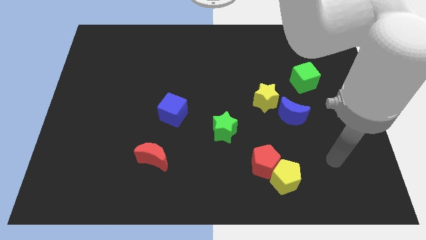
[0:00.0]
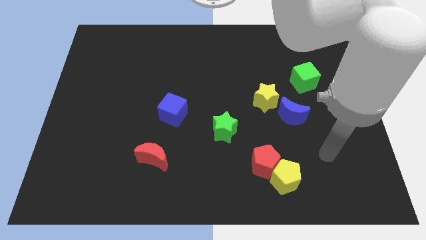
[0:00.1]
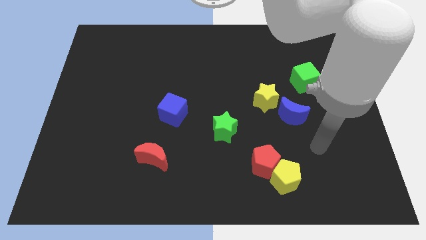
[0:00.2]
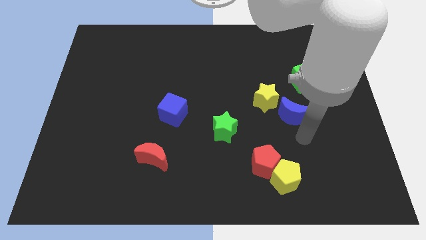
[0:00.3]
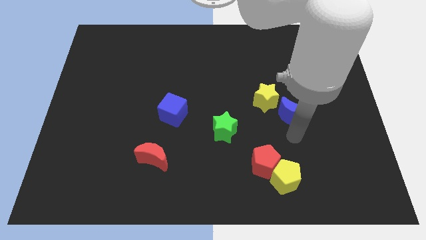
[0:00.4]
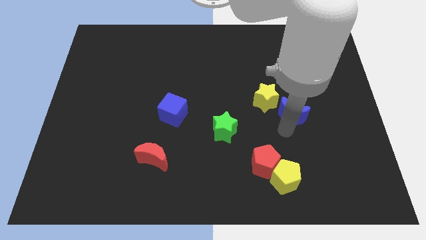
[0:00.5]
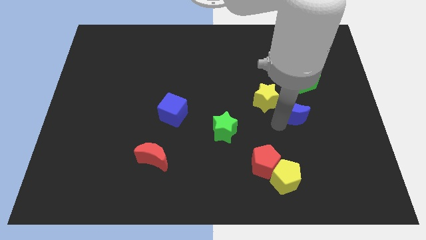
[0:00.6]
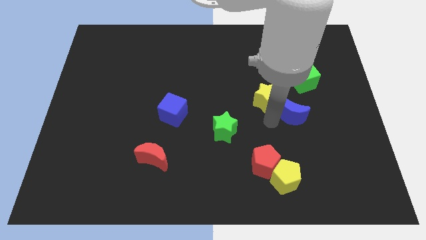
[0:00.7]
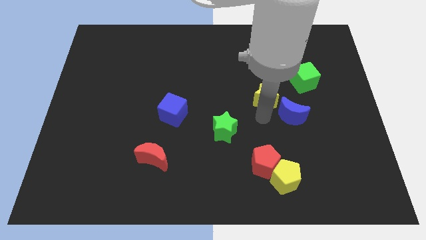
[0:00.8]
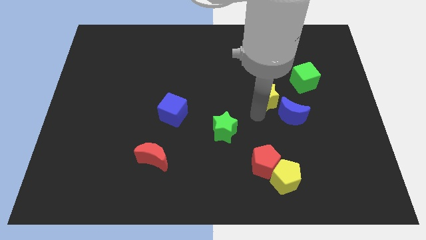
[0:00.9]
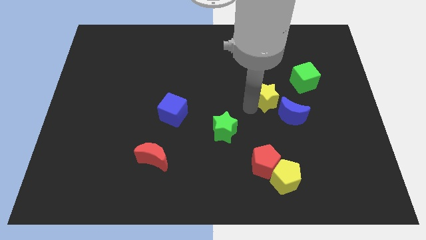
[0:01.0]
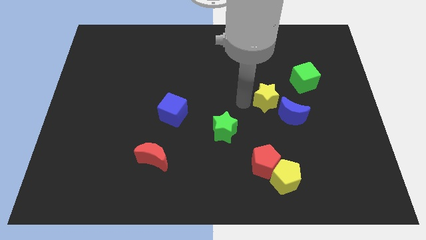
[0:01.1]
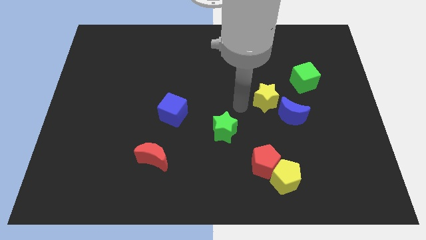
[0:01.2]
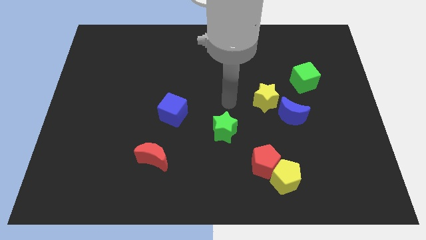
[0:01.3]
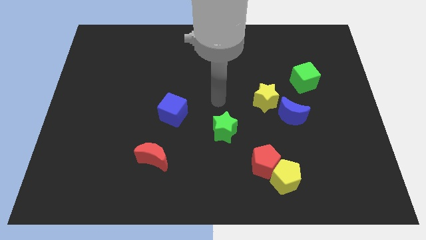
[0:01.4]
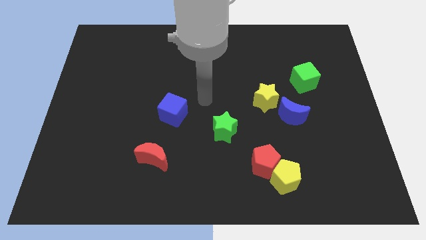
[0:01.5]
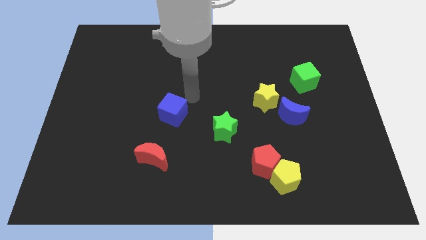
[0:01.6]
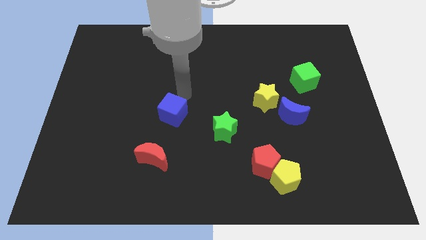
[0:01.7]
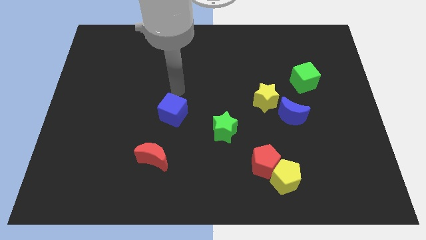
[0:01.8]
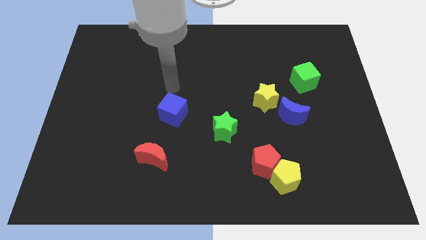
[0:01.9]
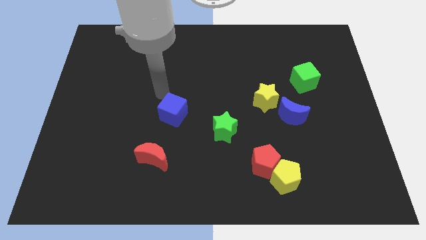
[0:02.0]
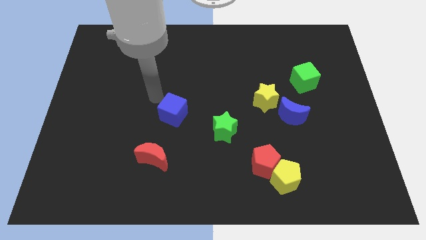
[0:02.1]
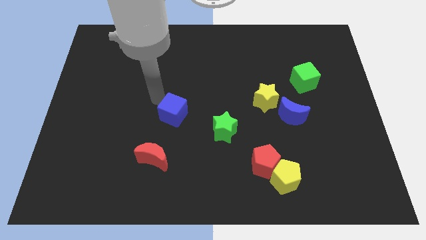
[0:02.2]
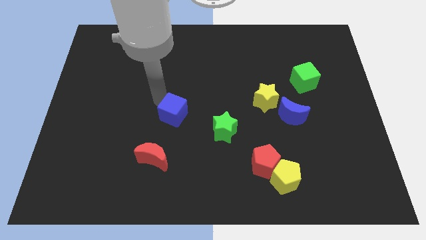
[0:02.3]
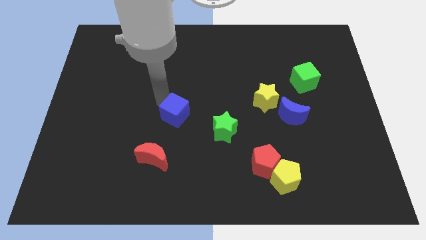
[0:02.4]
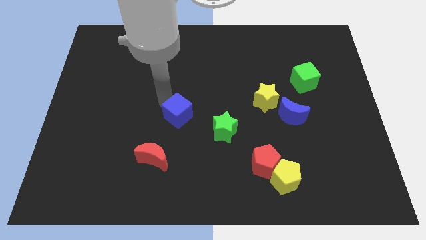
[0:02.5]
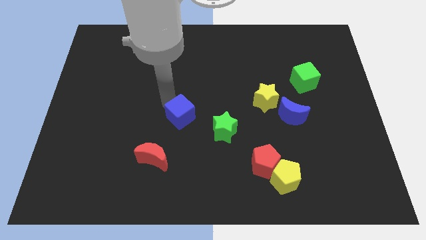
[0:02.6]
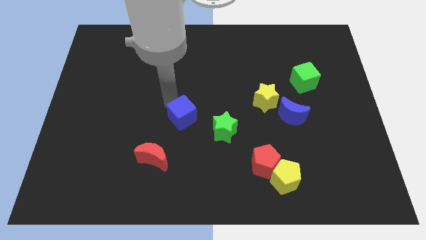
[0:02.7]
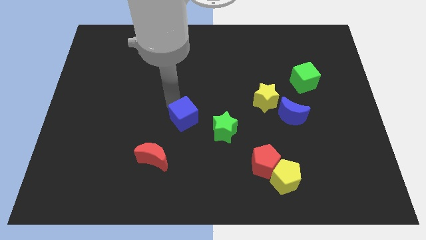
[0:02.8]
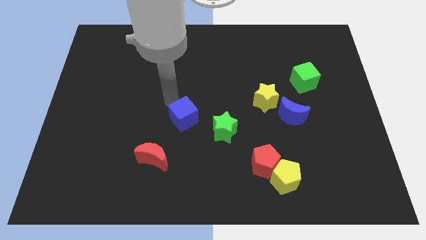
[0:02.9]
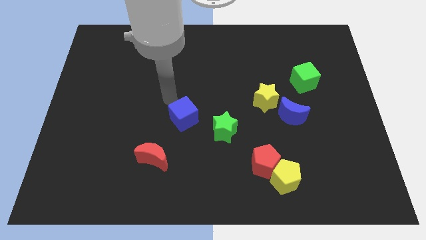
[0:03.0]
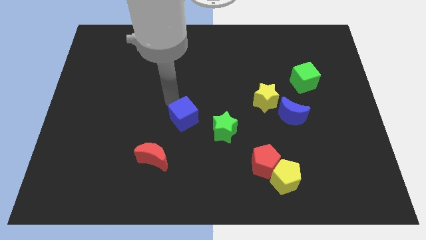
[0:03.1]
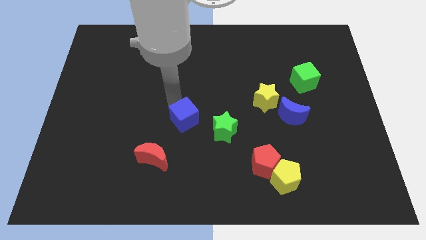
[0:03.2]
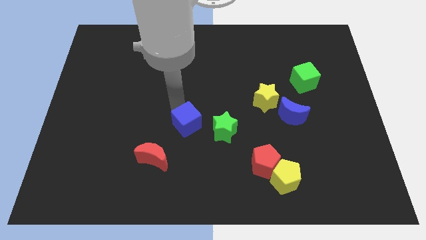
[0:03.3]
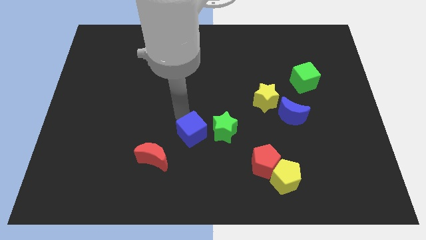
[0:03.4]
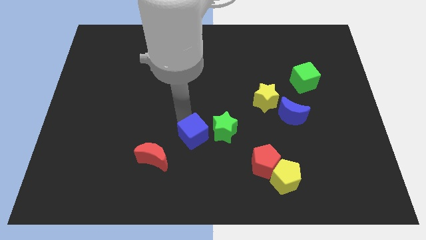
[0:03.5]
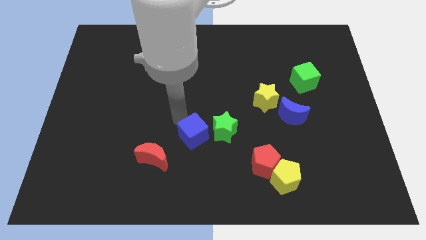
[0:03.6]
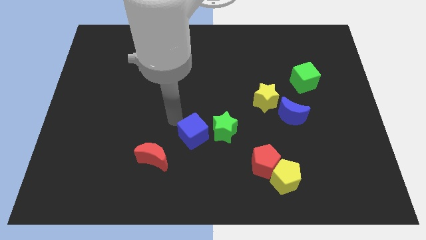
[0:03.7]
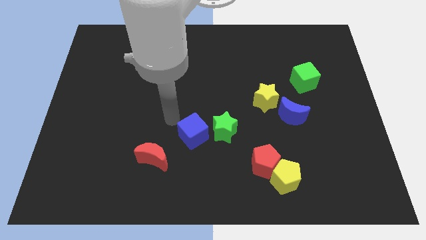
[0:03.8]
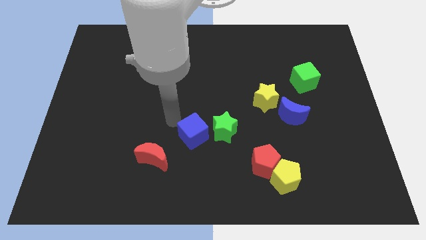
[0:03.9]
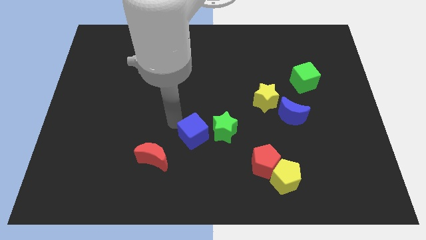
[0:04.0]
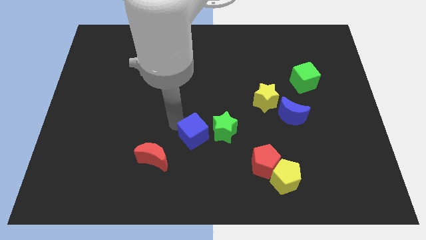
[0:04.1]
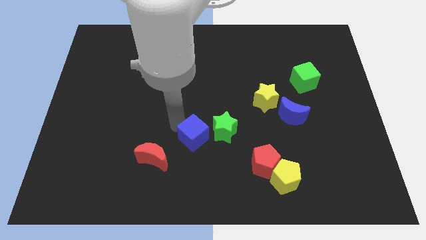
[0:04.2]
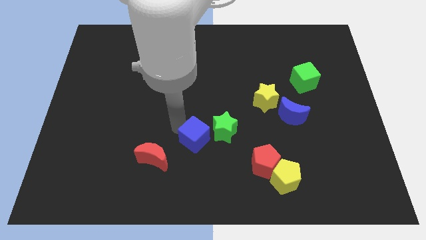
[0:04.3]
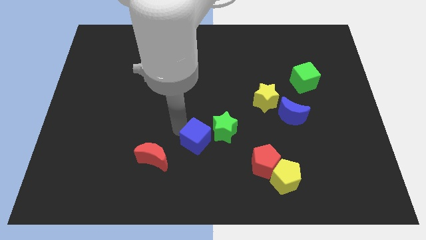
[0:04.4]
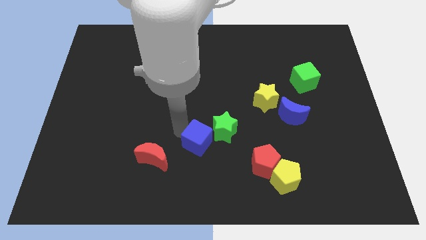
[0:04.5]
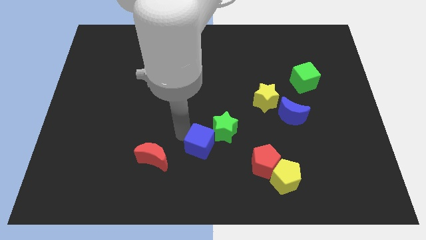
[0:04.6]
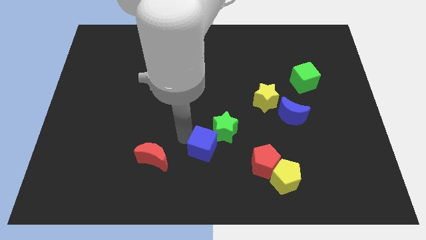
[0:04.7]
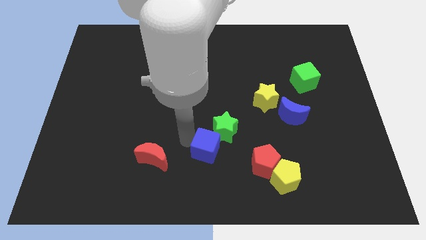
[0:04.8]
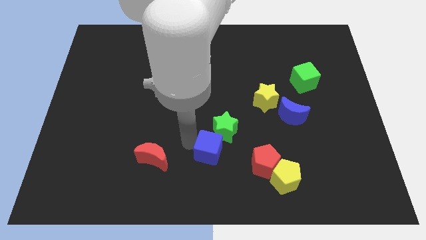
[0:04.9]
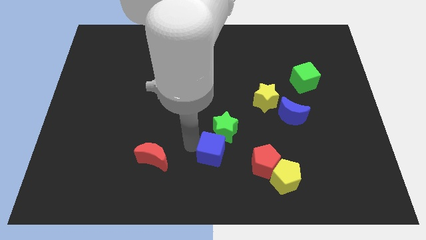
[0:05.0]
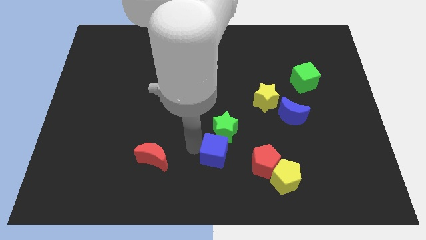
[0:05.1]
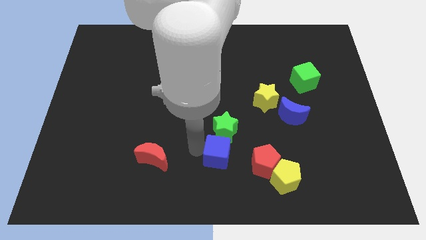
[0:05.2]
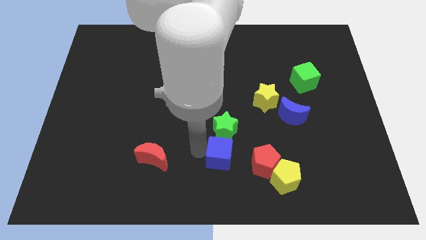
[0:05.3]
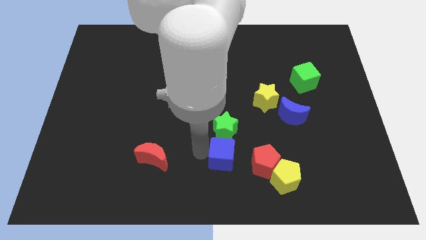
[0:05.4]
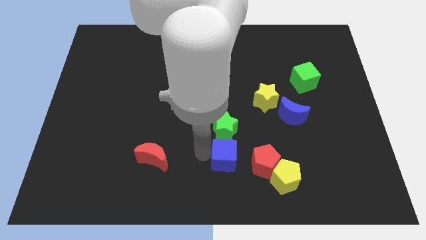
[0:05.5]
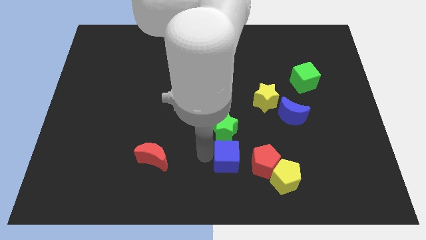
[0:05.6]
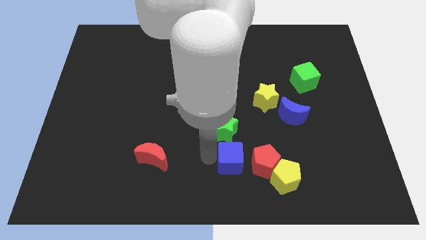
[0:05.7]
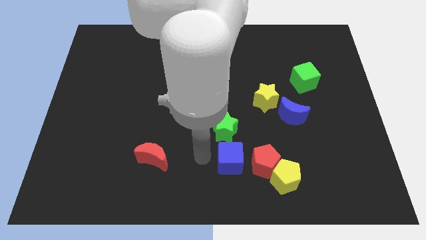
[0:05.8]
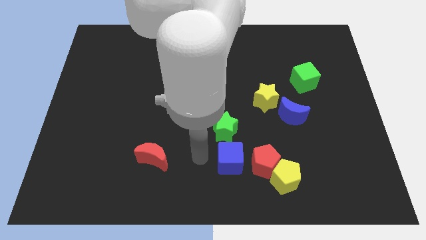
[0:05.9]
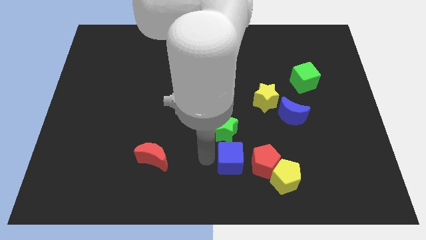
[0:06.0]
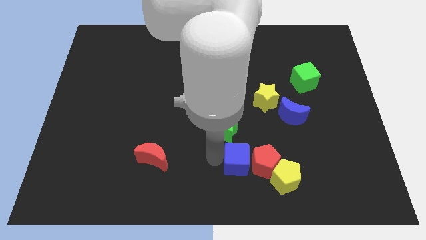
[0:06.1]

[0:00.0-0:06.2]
push the blue cube to the red pentagon

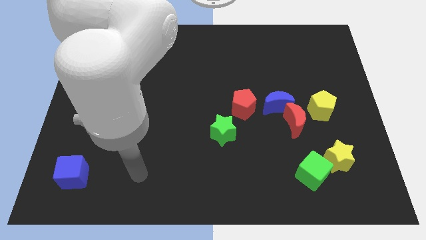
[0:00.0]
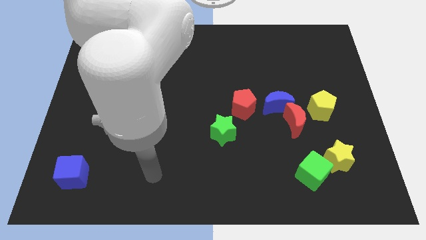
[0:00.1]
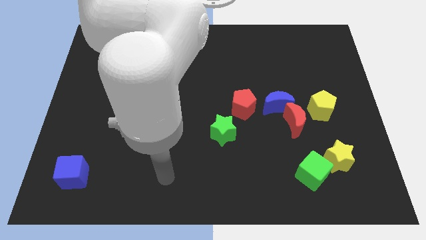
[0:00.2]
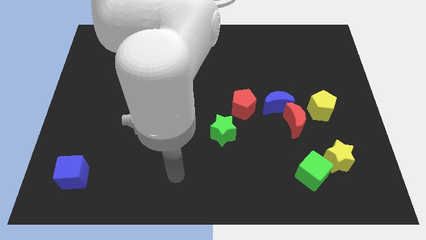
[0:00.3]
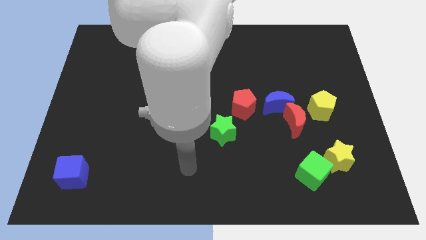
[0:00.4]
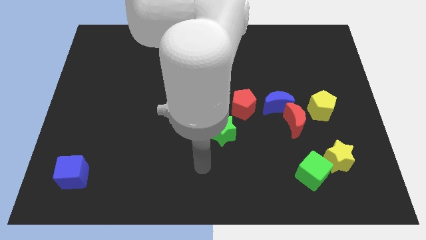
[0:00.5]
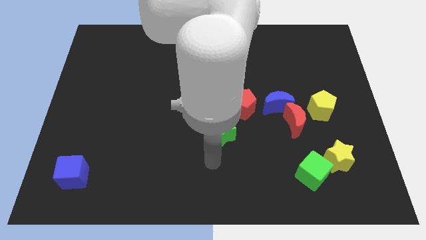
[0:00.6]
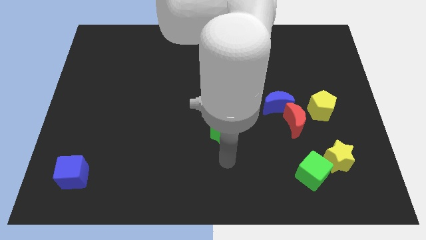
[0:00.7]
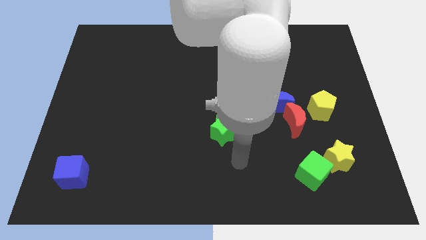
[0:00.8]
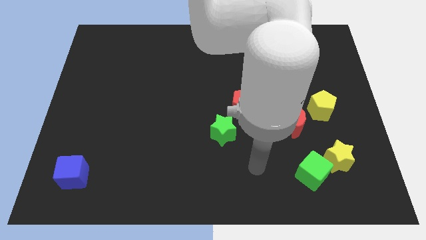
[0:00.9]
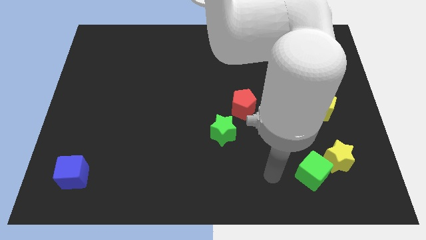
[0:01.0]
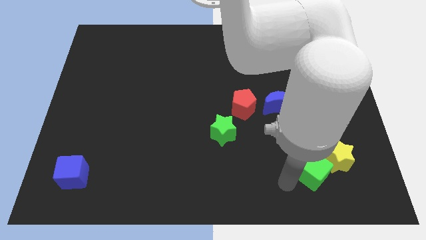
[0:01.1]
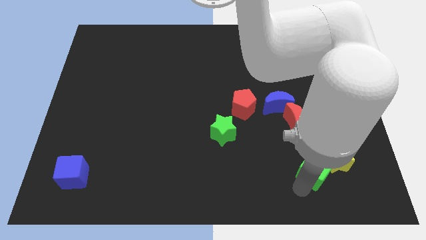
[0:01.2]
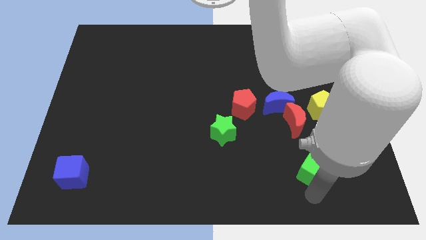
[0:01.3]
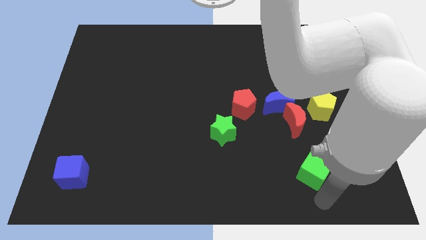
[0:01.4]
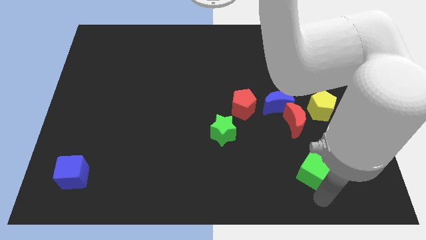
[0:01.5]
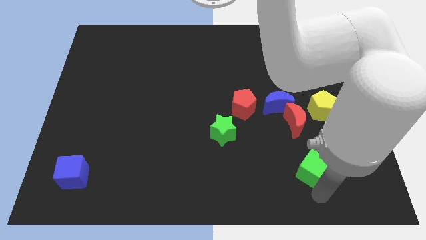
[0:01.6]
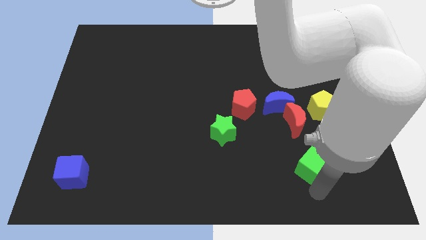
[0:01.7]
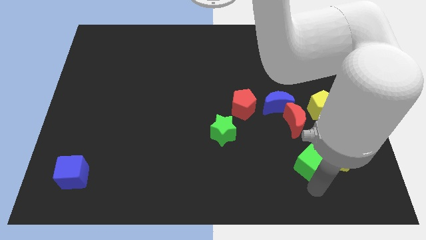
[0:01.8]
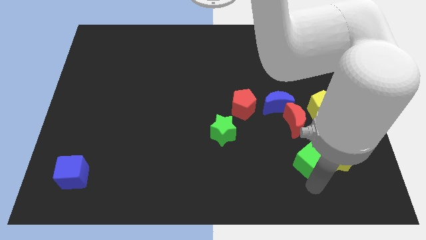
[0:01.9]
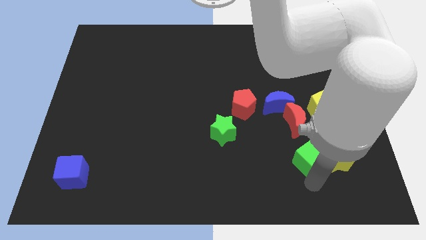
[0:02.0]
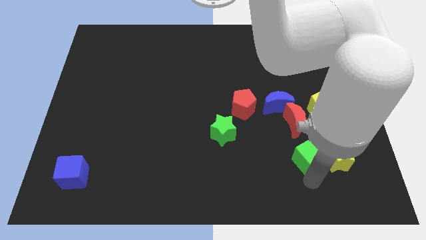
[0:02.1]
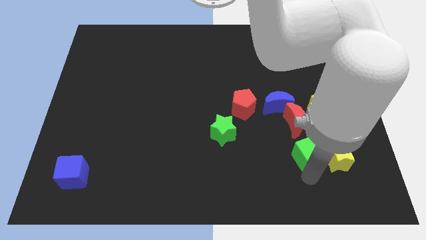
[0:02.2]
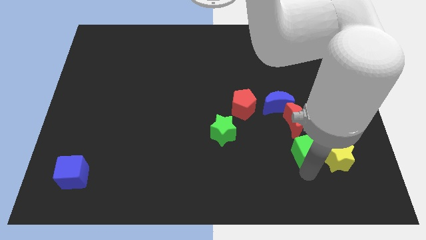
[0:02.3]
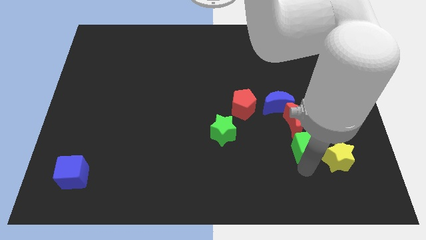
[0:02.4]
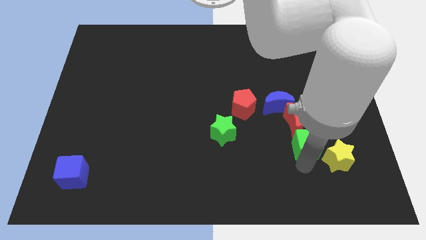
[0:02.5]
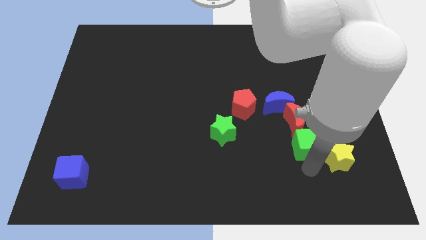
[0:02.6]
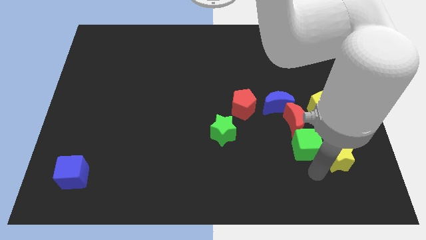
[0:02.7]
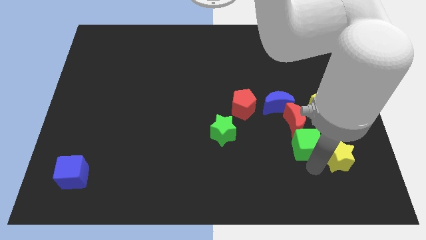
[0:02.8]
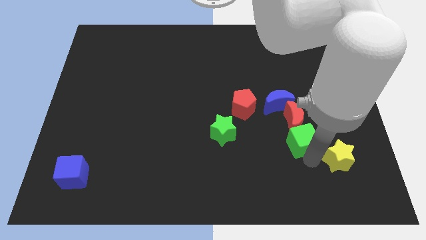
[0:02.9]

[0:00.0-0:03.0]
slide the green cube close to the red moon
